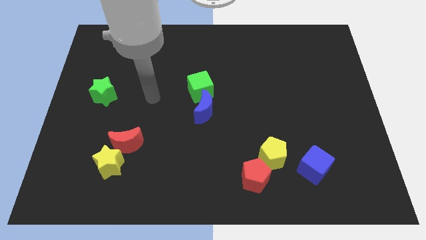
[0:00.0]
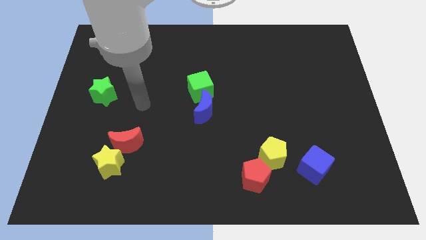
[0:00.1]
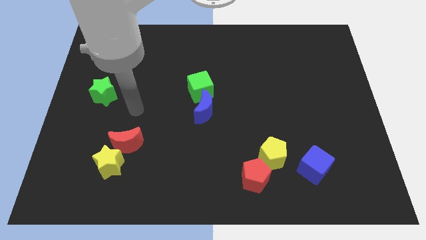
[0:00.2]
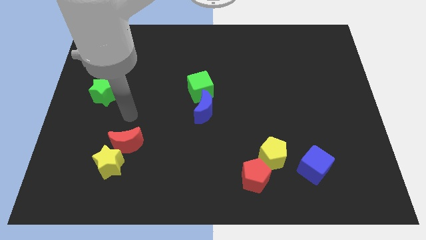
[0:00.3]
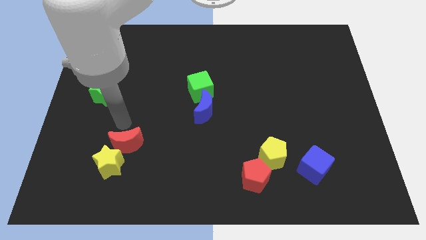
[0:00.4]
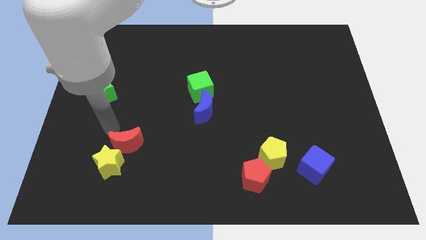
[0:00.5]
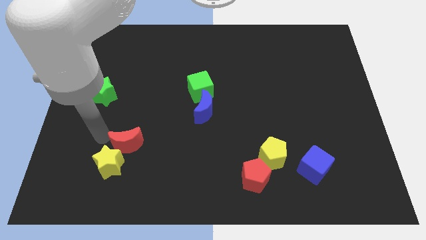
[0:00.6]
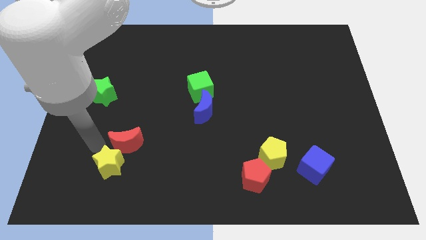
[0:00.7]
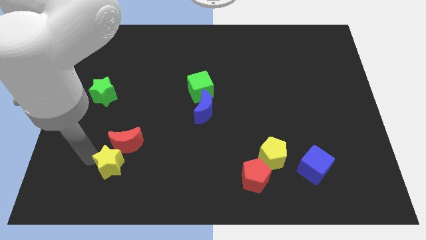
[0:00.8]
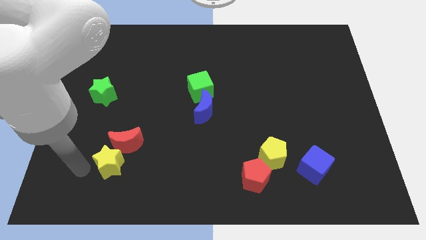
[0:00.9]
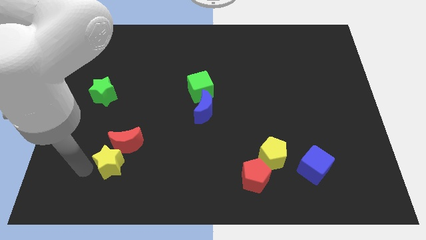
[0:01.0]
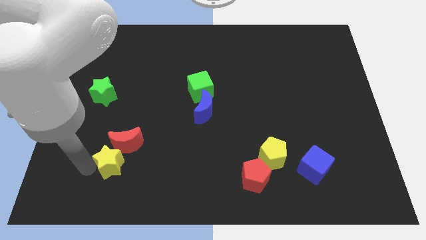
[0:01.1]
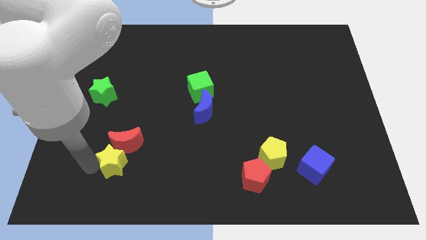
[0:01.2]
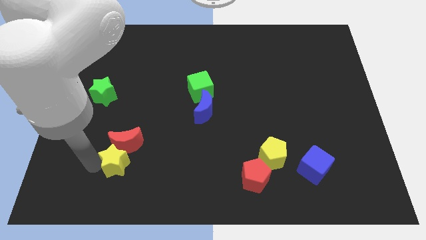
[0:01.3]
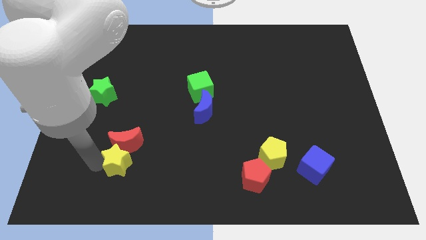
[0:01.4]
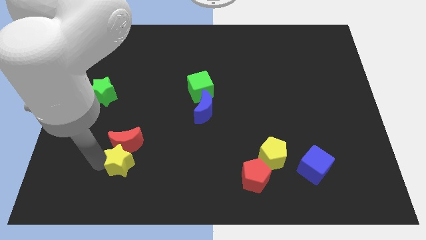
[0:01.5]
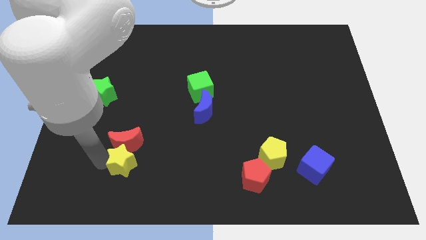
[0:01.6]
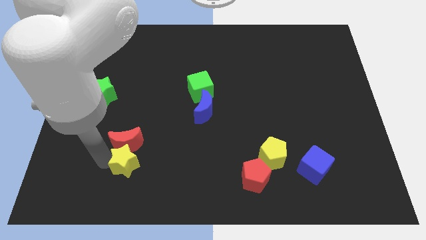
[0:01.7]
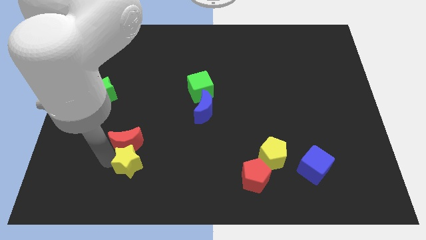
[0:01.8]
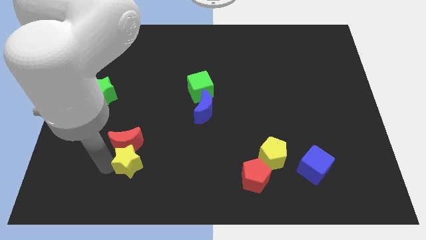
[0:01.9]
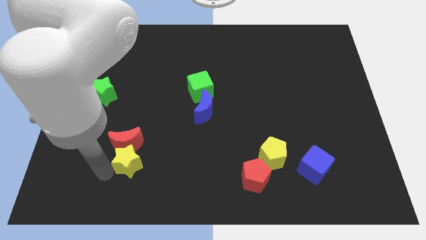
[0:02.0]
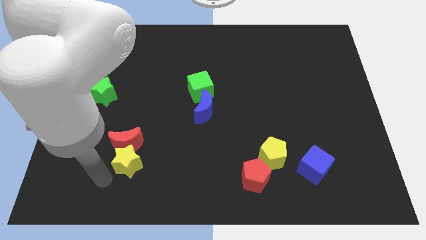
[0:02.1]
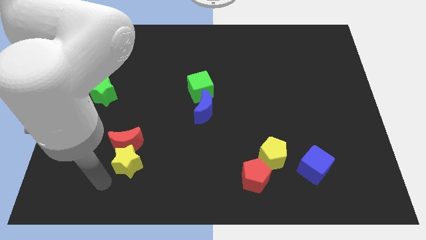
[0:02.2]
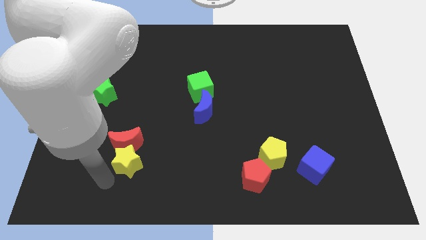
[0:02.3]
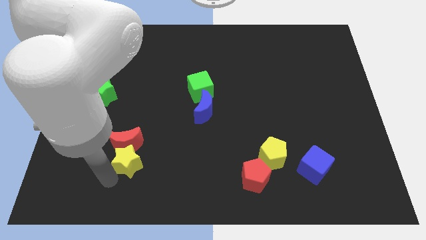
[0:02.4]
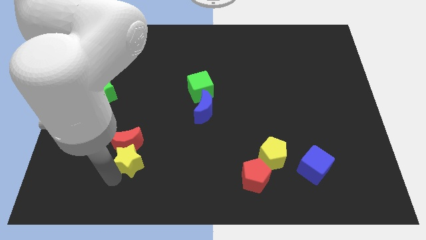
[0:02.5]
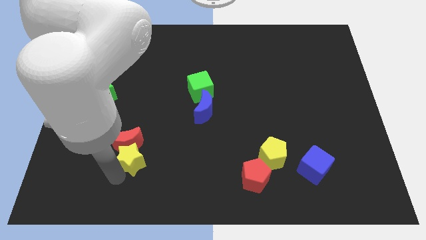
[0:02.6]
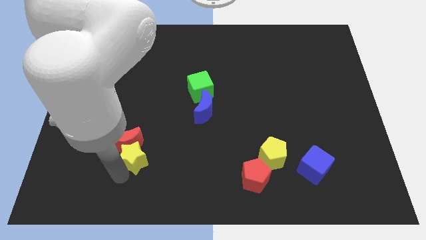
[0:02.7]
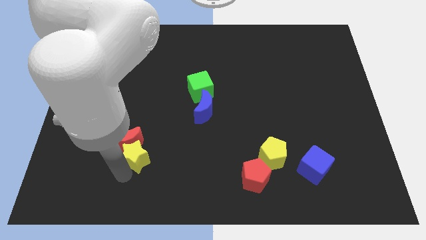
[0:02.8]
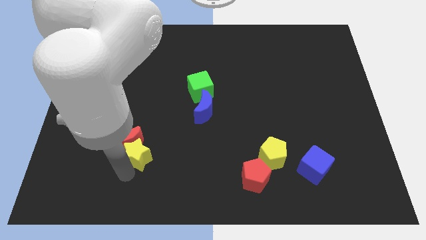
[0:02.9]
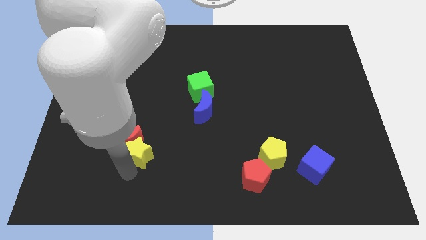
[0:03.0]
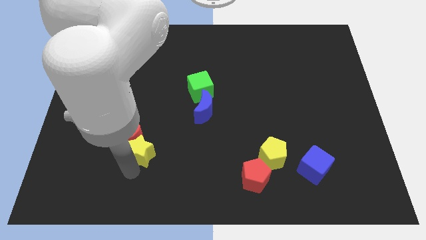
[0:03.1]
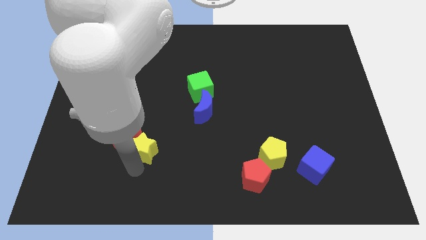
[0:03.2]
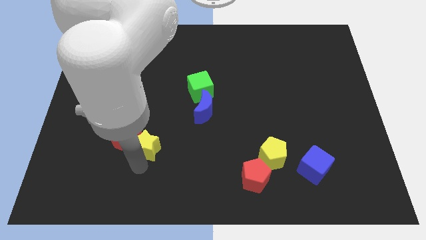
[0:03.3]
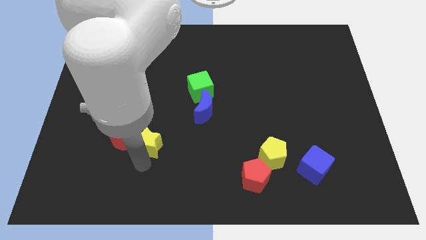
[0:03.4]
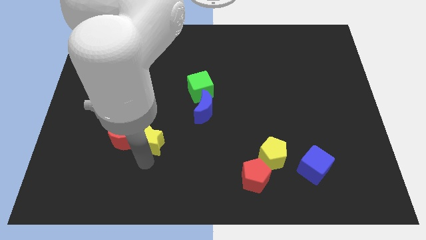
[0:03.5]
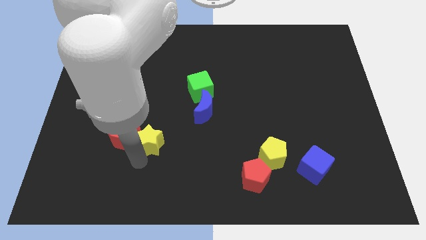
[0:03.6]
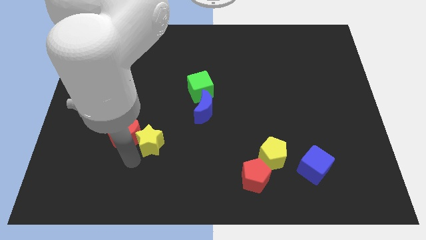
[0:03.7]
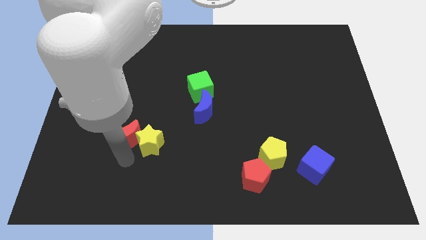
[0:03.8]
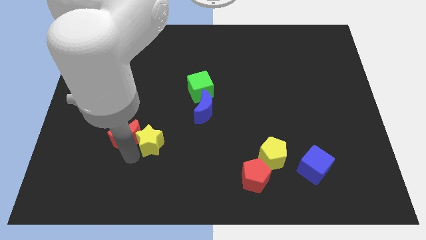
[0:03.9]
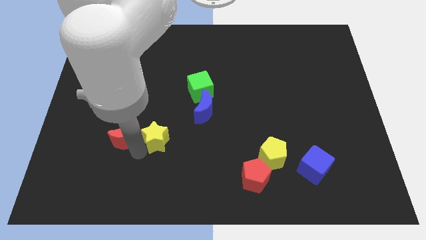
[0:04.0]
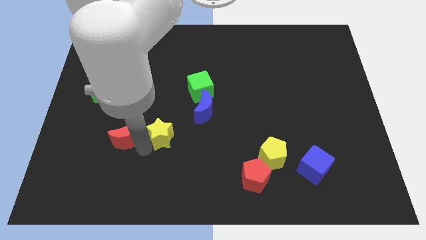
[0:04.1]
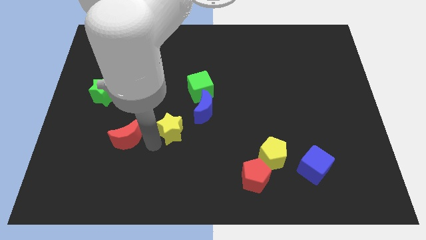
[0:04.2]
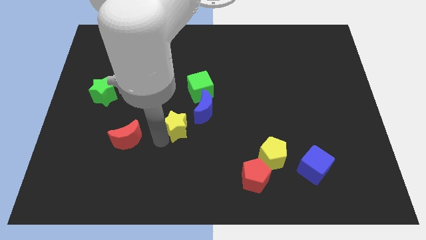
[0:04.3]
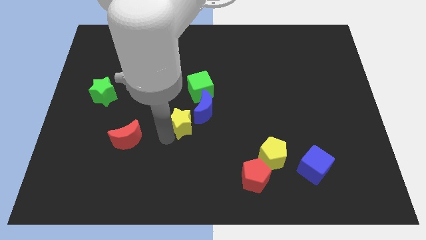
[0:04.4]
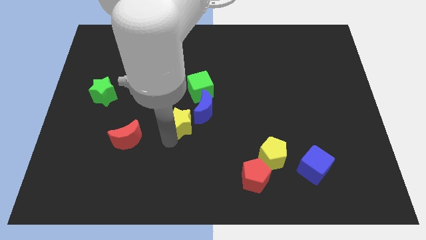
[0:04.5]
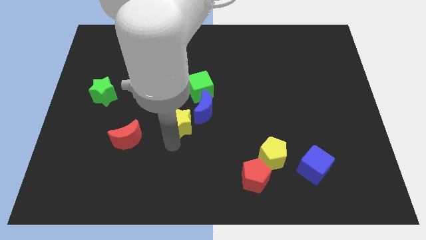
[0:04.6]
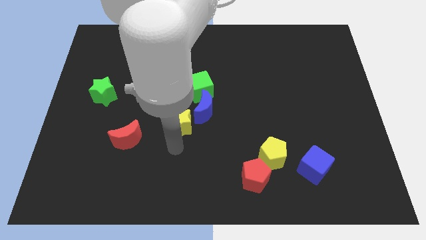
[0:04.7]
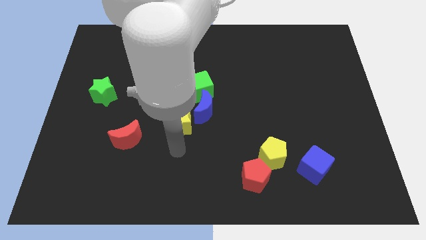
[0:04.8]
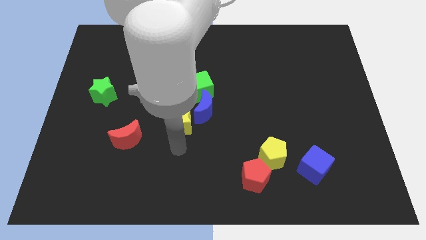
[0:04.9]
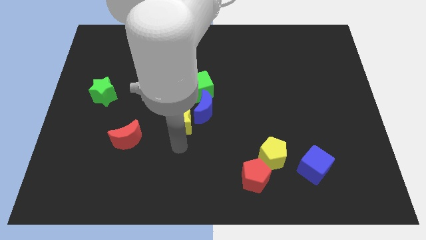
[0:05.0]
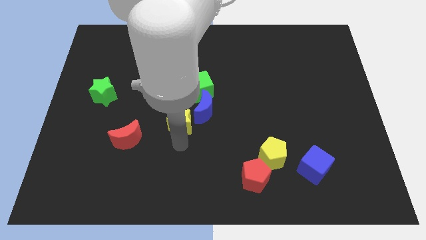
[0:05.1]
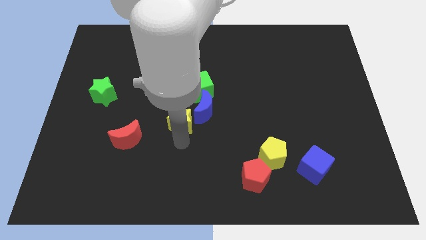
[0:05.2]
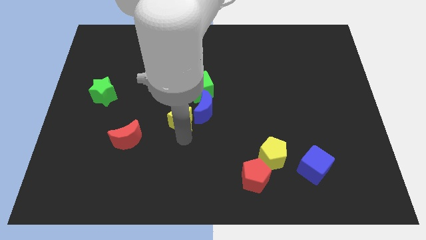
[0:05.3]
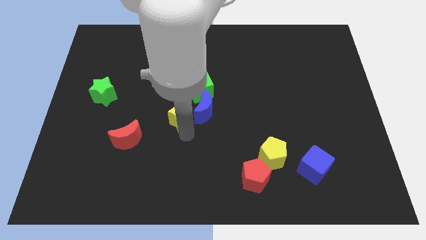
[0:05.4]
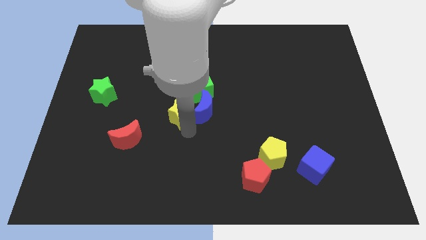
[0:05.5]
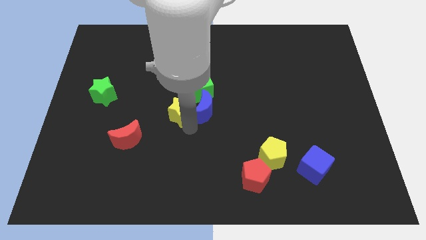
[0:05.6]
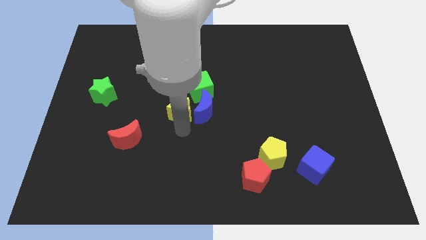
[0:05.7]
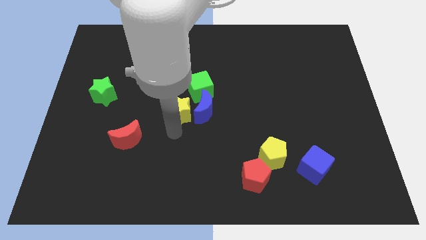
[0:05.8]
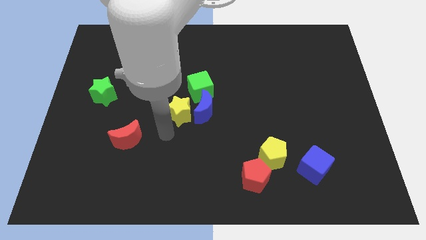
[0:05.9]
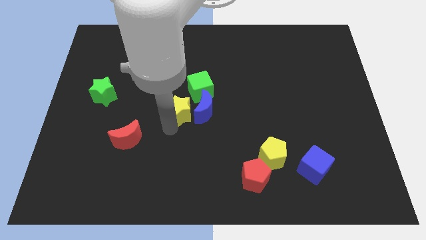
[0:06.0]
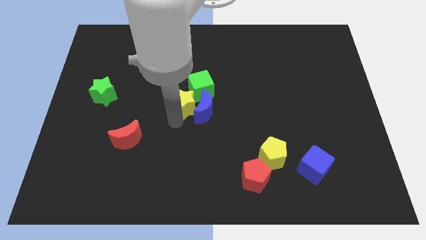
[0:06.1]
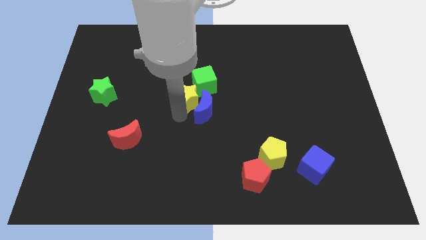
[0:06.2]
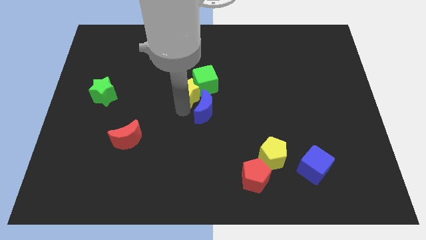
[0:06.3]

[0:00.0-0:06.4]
move the yellow star to the green cube
